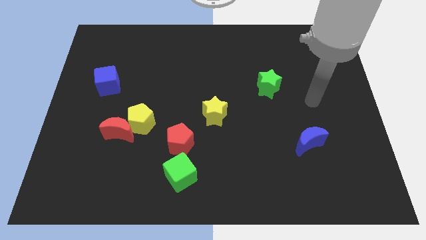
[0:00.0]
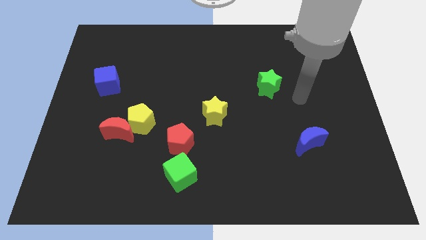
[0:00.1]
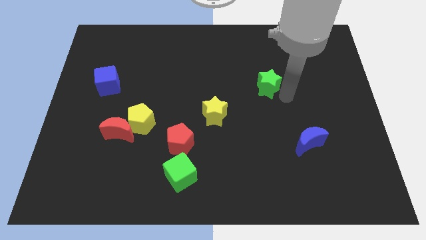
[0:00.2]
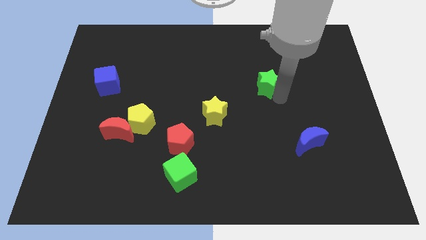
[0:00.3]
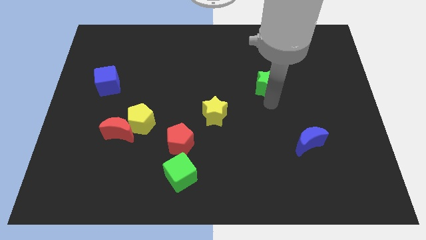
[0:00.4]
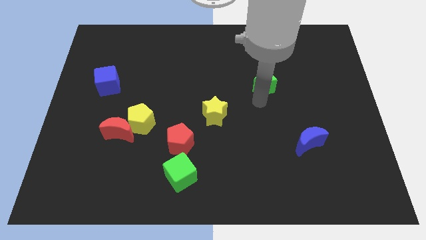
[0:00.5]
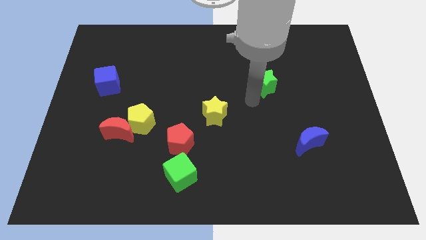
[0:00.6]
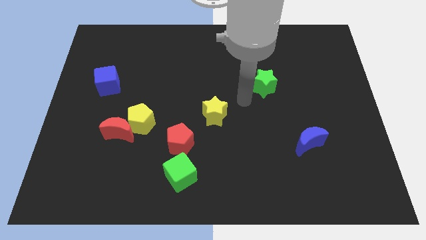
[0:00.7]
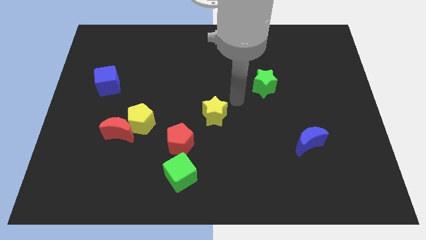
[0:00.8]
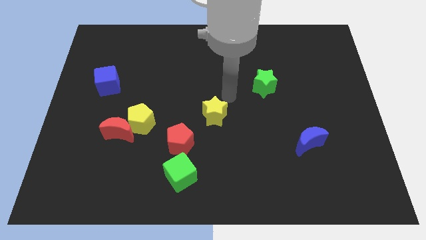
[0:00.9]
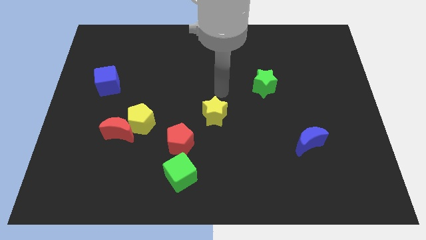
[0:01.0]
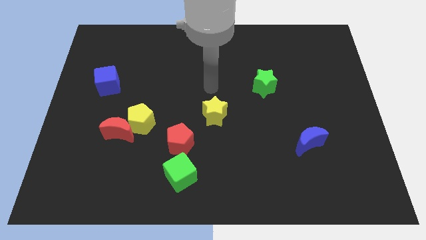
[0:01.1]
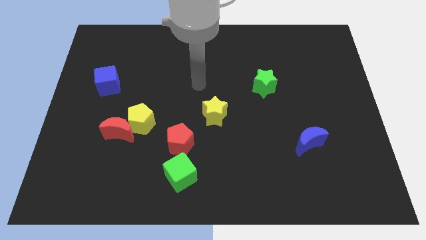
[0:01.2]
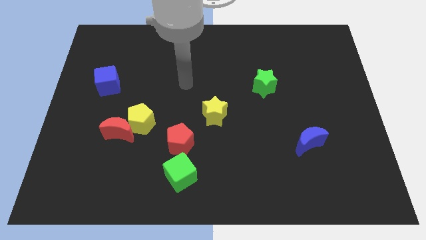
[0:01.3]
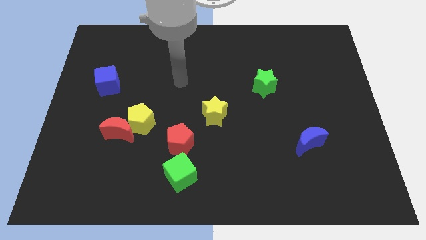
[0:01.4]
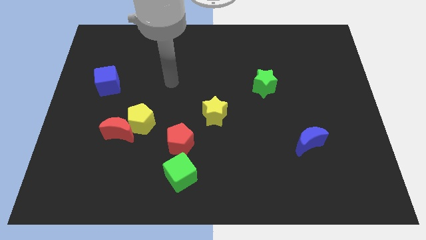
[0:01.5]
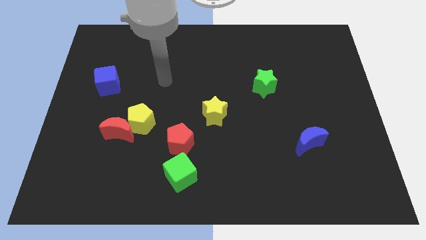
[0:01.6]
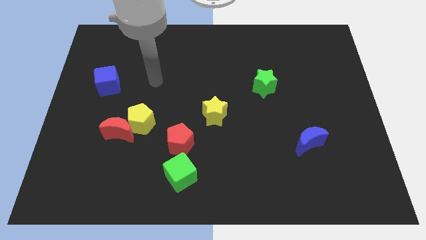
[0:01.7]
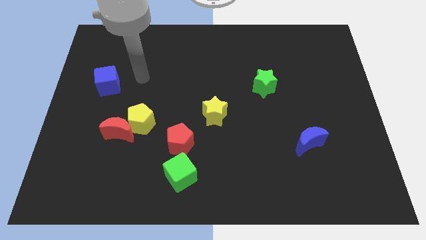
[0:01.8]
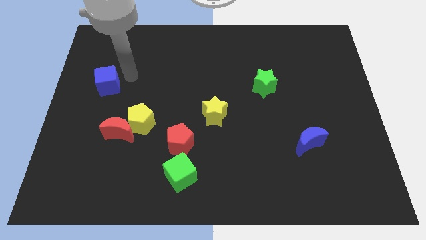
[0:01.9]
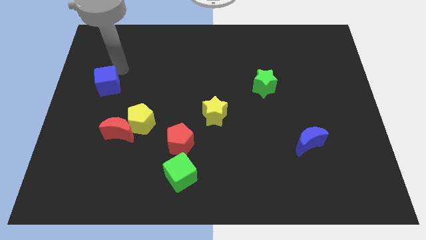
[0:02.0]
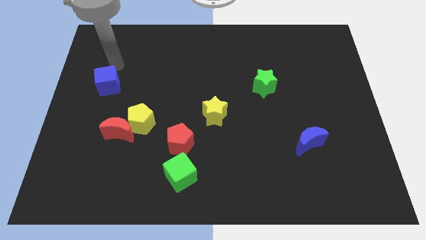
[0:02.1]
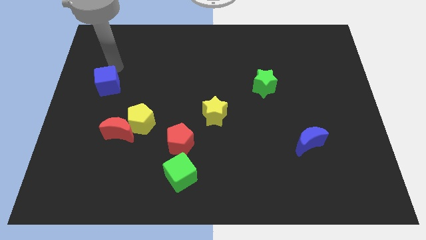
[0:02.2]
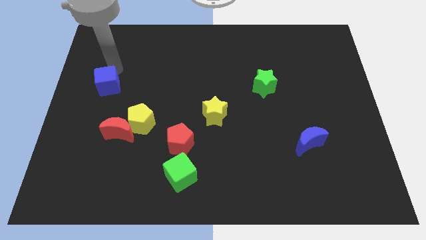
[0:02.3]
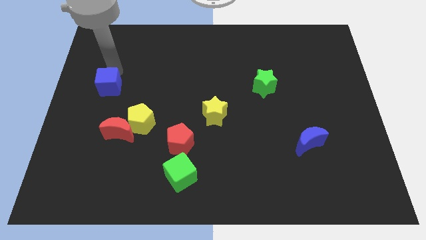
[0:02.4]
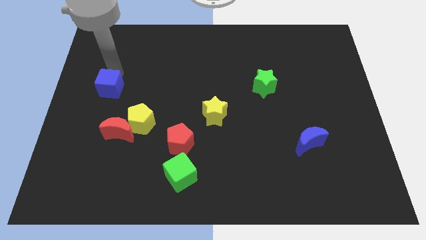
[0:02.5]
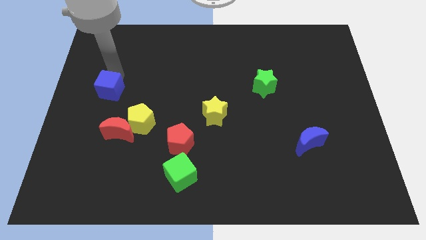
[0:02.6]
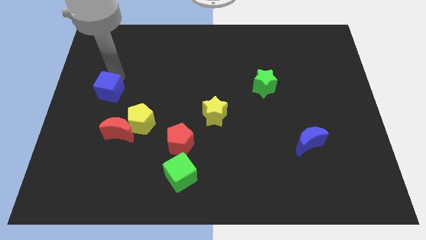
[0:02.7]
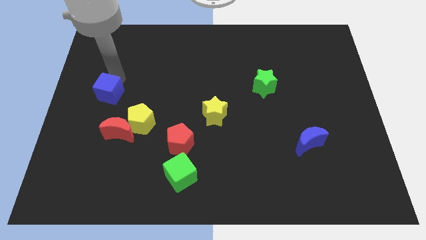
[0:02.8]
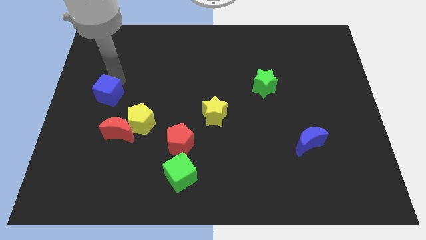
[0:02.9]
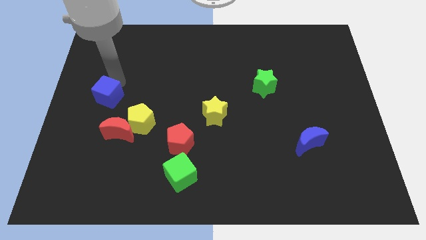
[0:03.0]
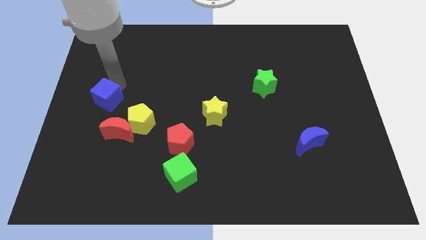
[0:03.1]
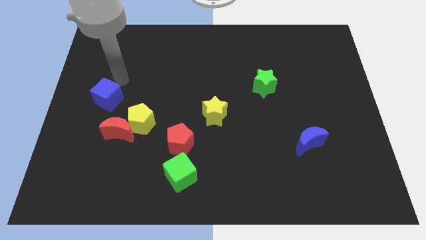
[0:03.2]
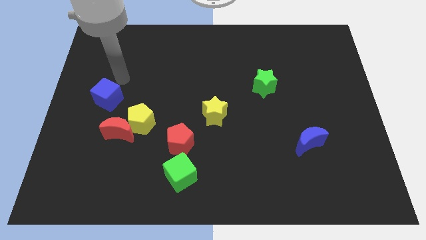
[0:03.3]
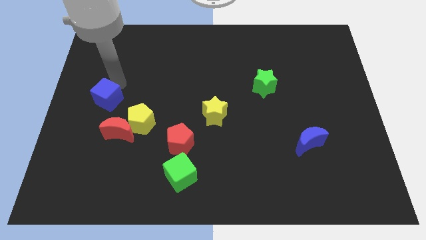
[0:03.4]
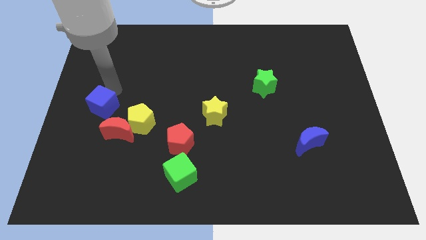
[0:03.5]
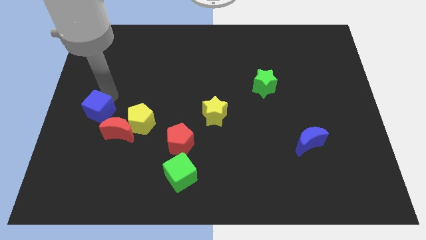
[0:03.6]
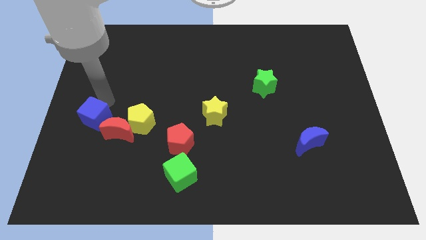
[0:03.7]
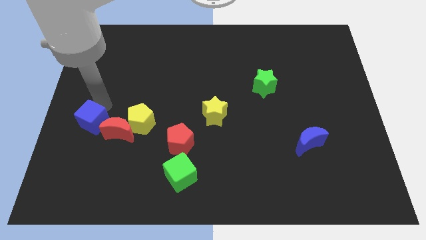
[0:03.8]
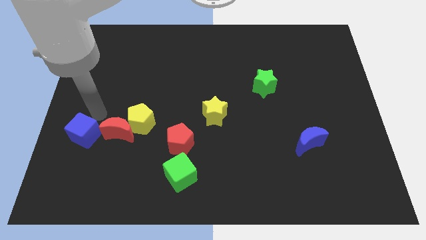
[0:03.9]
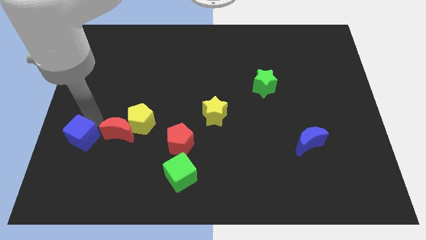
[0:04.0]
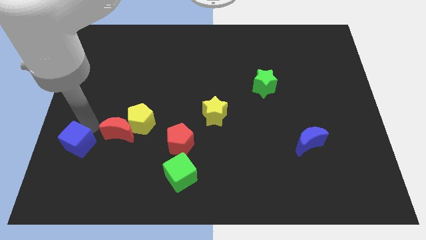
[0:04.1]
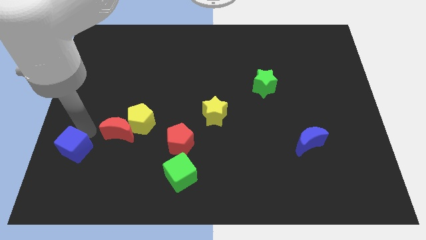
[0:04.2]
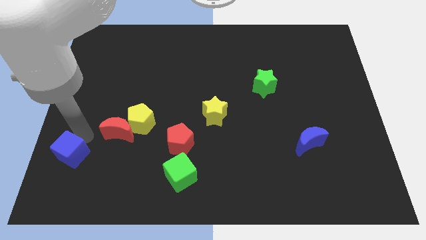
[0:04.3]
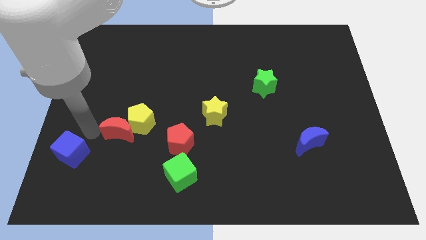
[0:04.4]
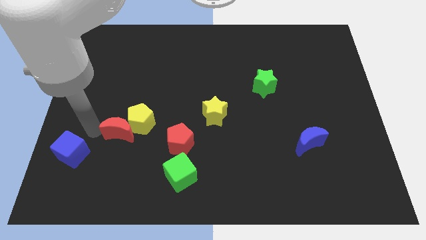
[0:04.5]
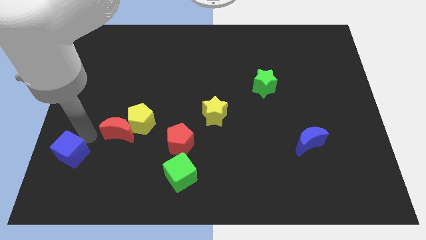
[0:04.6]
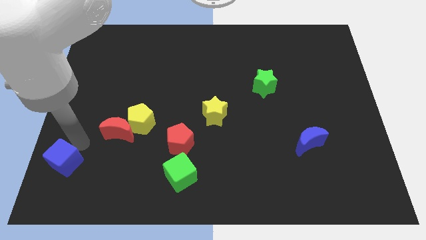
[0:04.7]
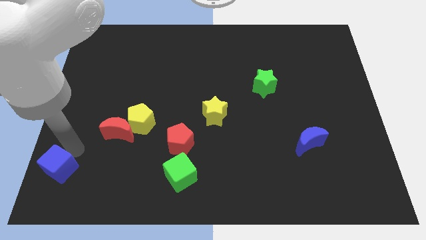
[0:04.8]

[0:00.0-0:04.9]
put the blue cube to the bottom left corner

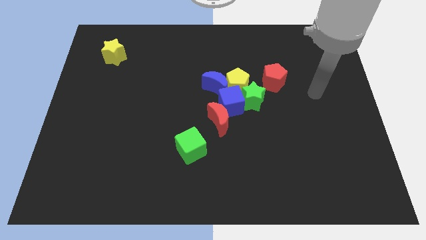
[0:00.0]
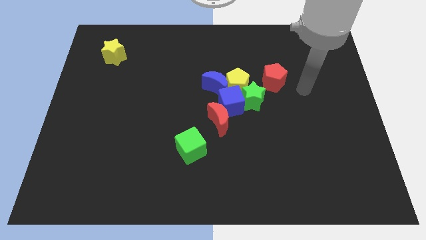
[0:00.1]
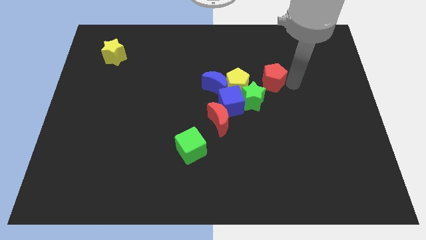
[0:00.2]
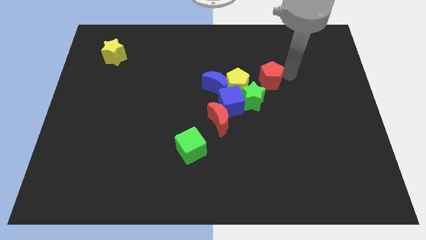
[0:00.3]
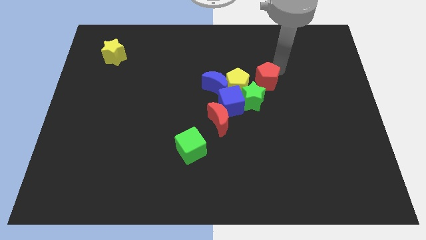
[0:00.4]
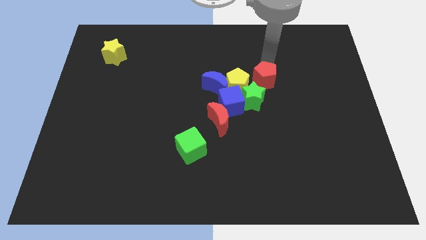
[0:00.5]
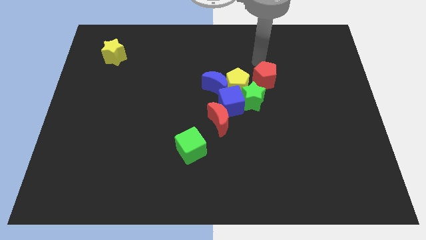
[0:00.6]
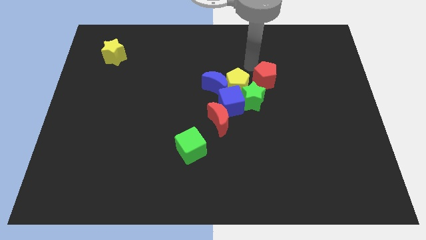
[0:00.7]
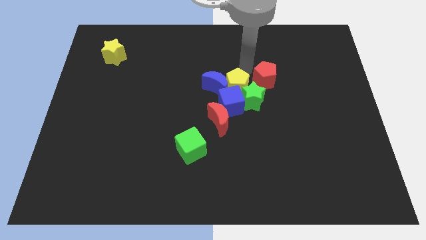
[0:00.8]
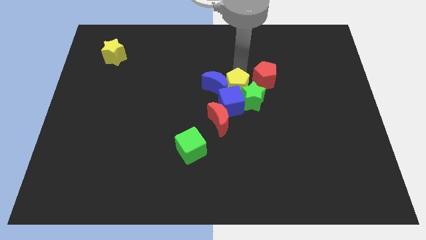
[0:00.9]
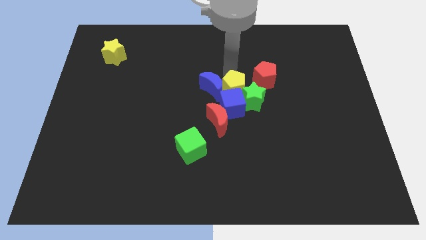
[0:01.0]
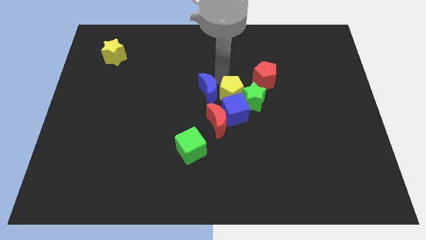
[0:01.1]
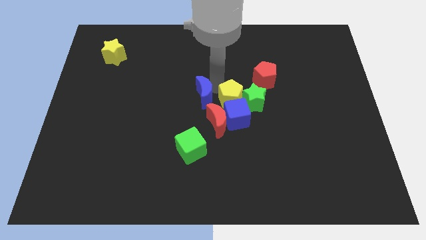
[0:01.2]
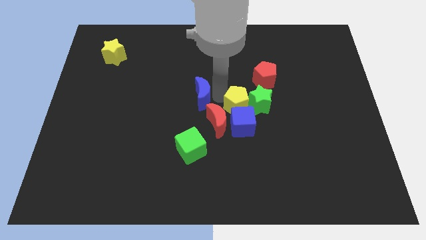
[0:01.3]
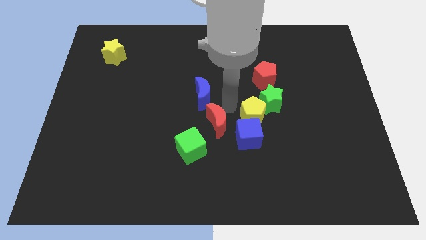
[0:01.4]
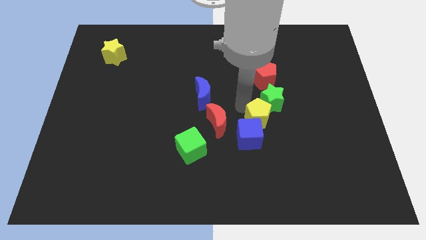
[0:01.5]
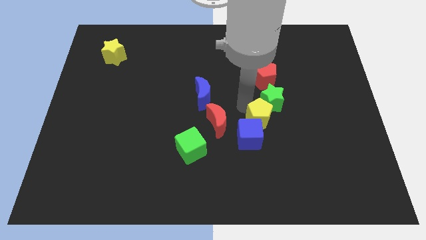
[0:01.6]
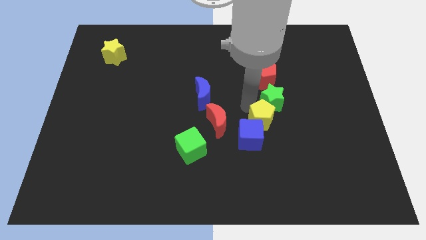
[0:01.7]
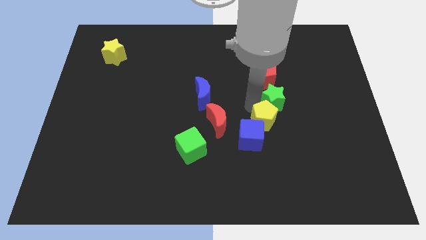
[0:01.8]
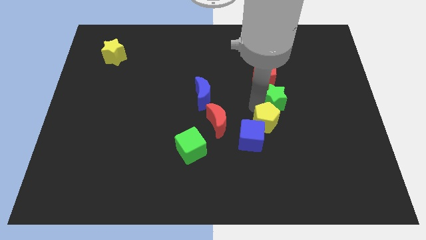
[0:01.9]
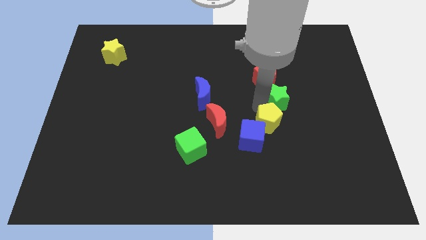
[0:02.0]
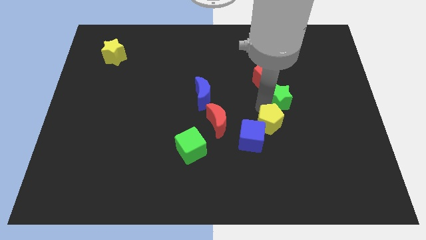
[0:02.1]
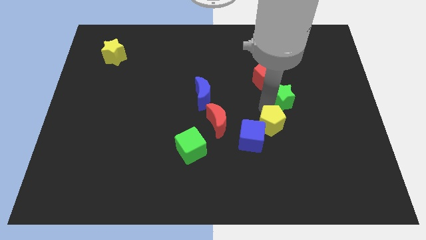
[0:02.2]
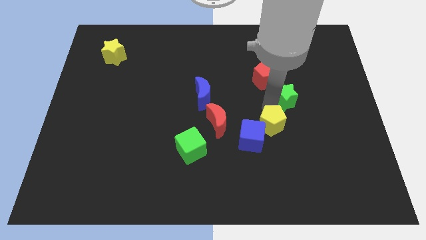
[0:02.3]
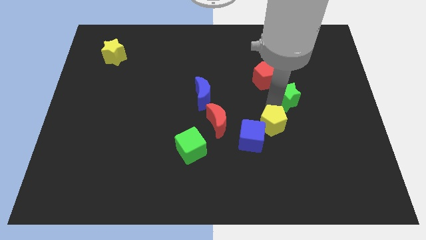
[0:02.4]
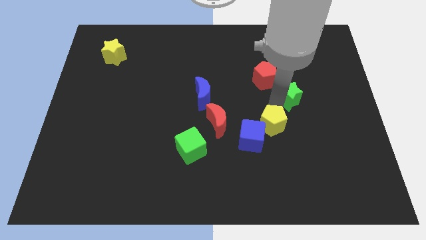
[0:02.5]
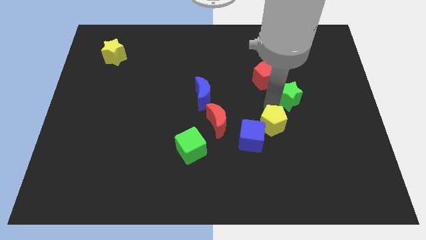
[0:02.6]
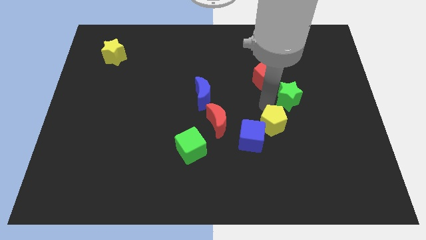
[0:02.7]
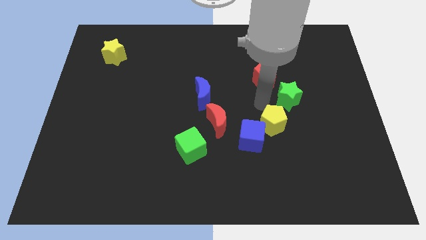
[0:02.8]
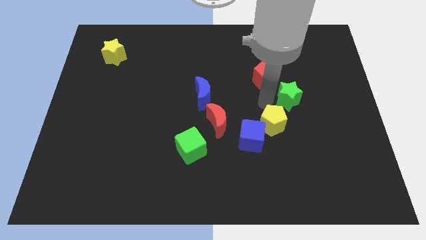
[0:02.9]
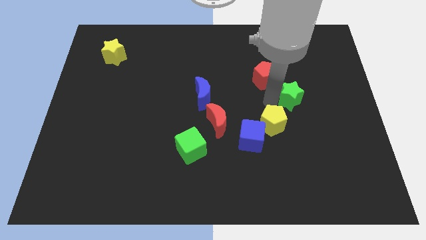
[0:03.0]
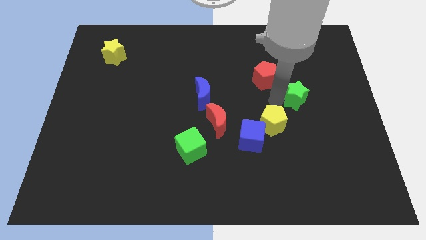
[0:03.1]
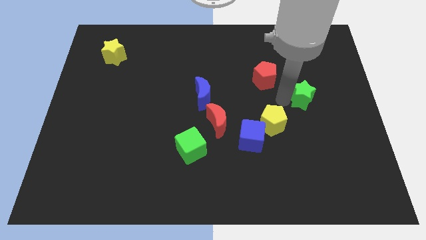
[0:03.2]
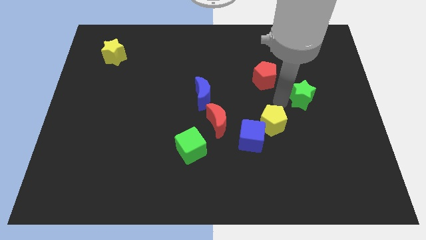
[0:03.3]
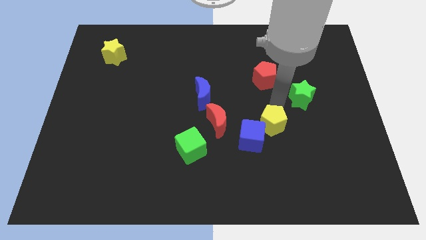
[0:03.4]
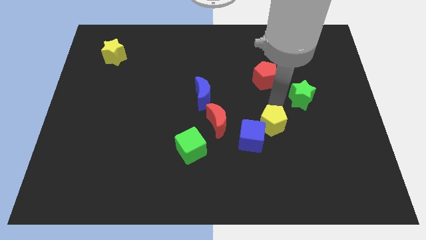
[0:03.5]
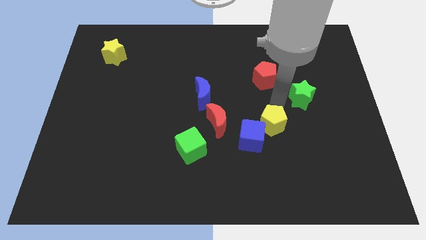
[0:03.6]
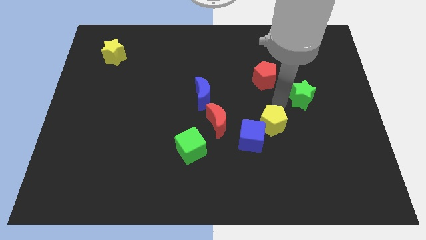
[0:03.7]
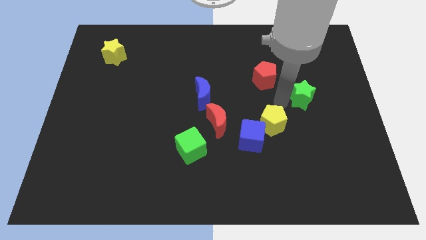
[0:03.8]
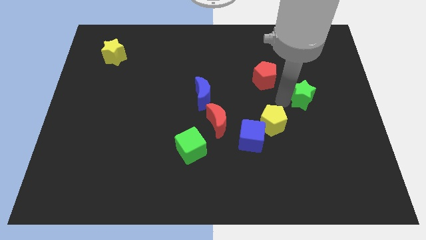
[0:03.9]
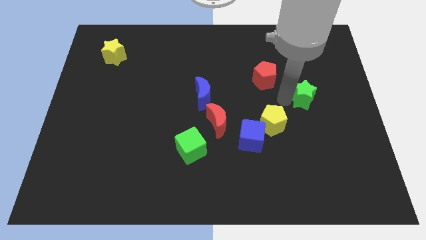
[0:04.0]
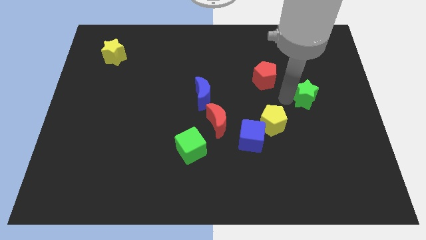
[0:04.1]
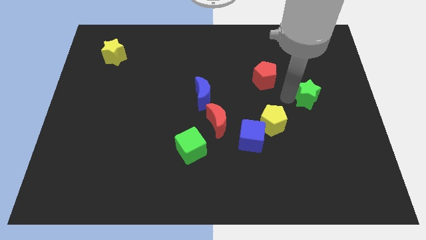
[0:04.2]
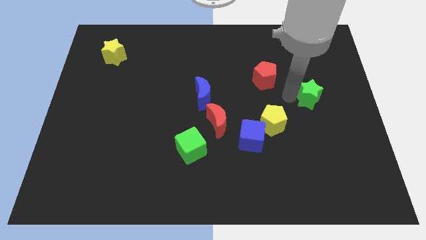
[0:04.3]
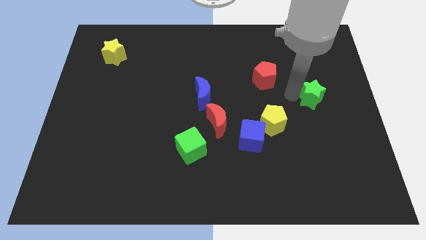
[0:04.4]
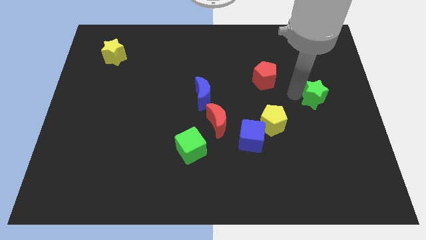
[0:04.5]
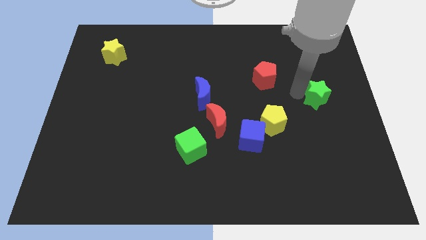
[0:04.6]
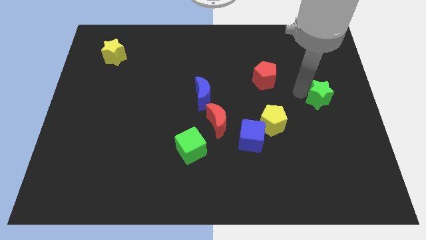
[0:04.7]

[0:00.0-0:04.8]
move the green star to the right side
